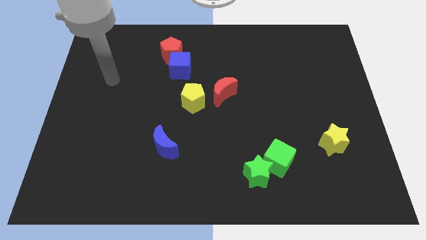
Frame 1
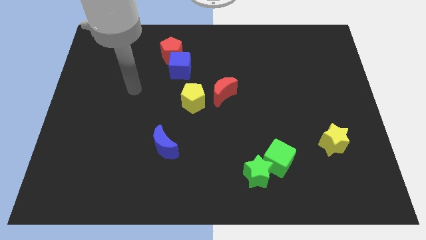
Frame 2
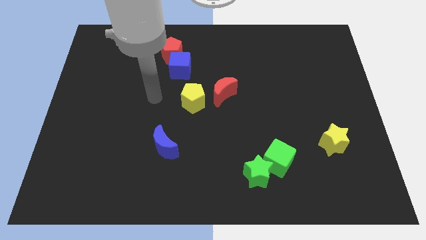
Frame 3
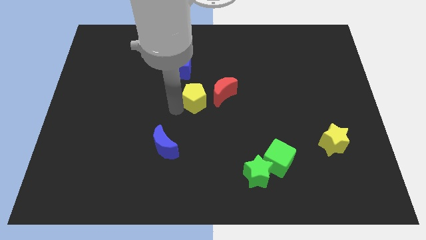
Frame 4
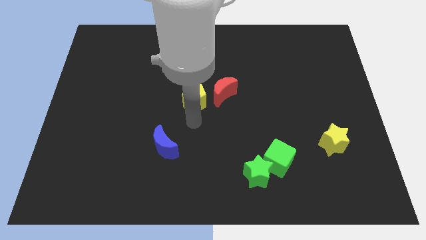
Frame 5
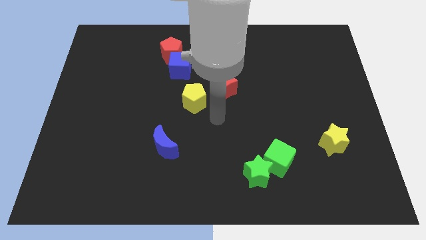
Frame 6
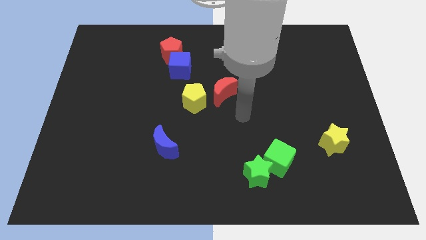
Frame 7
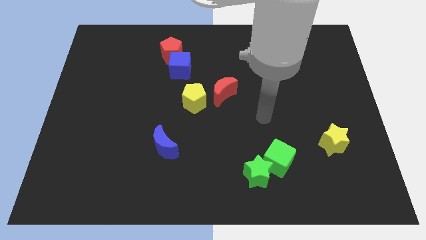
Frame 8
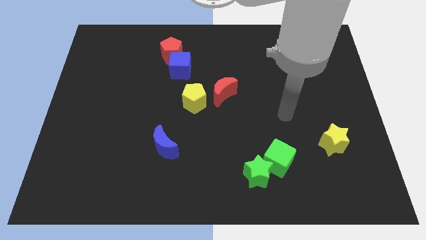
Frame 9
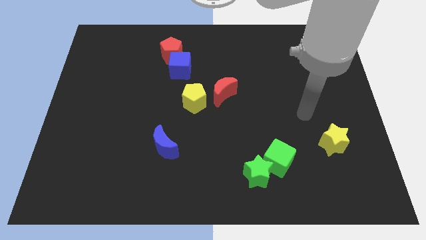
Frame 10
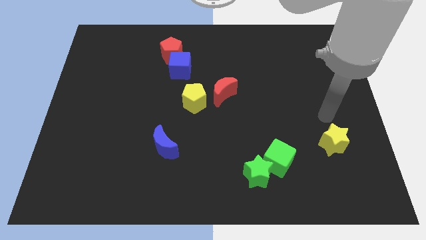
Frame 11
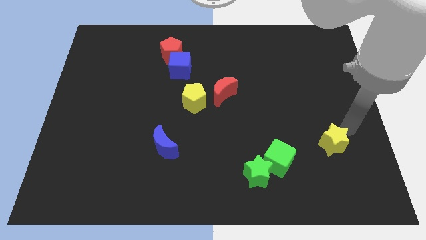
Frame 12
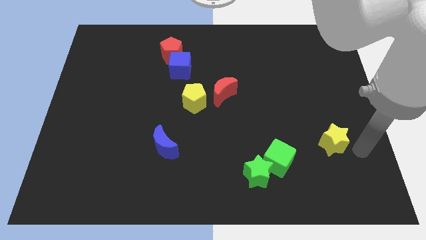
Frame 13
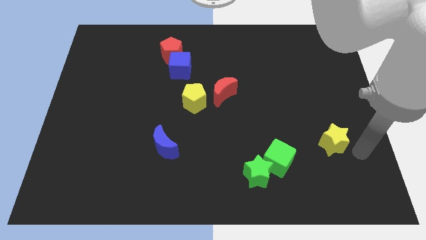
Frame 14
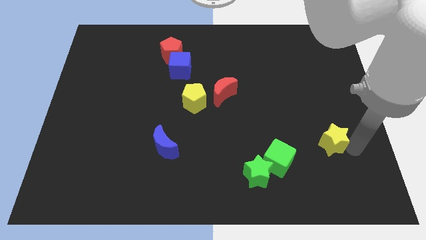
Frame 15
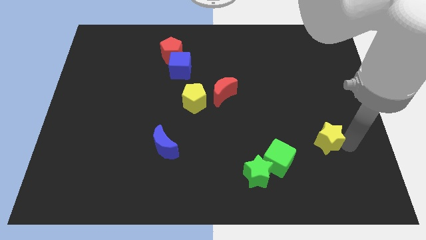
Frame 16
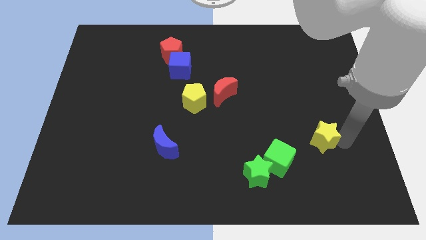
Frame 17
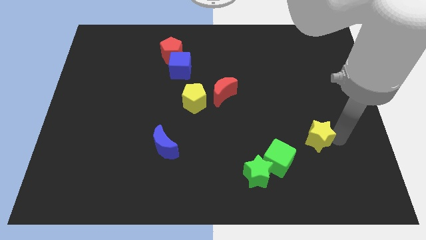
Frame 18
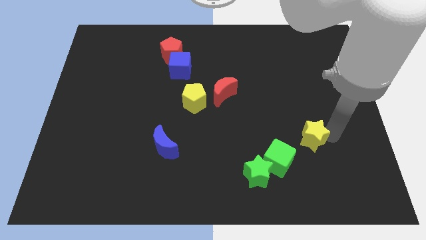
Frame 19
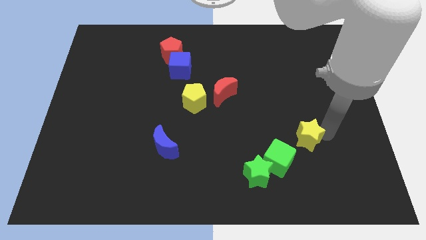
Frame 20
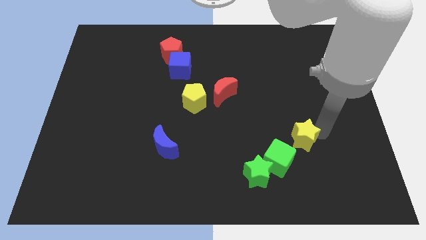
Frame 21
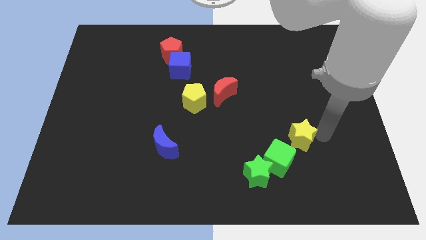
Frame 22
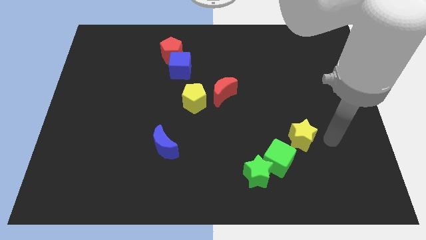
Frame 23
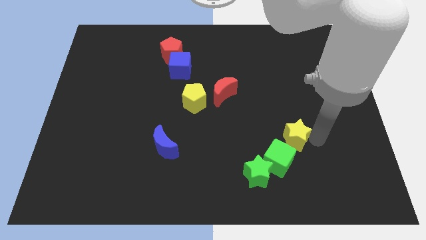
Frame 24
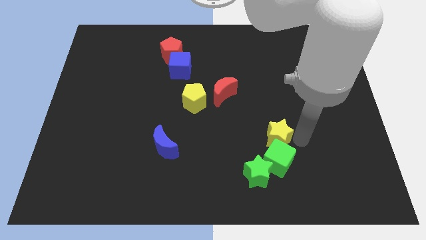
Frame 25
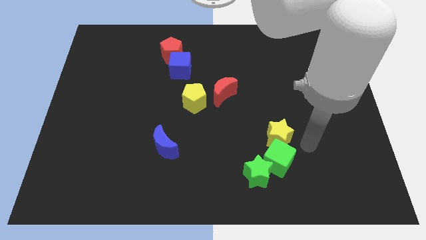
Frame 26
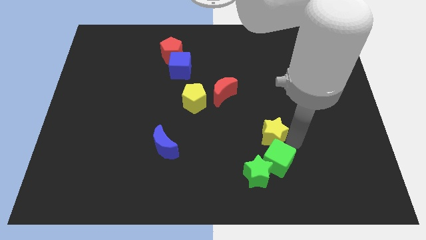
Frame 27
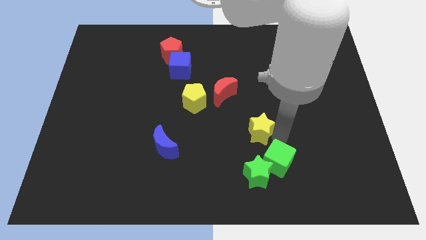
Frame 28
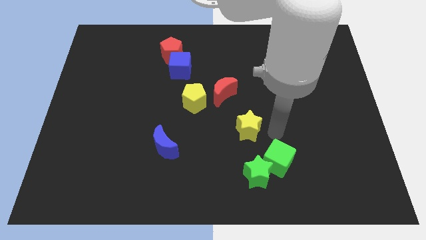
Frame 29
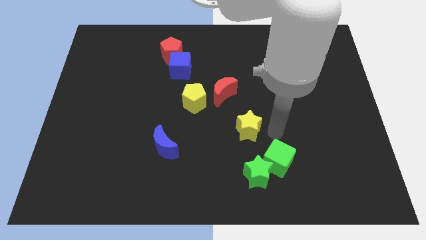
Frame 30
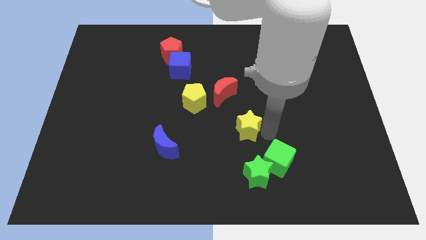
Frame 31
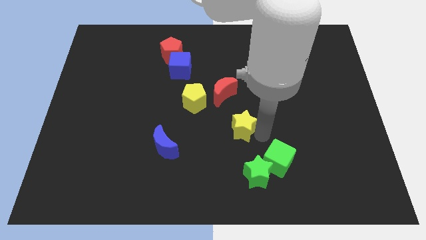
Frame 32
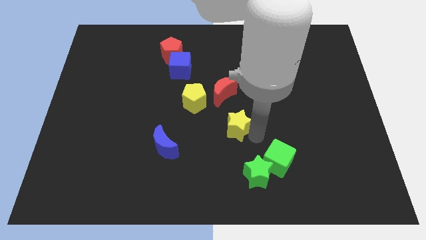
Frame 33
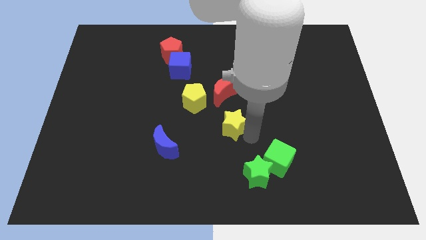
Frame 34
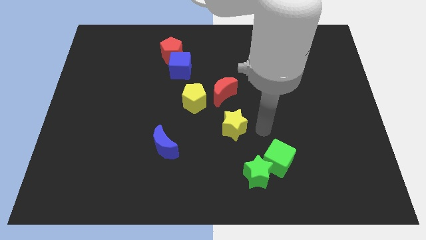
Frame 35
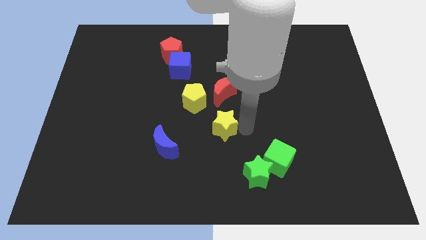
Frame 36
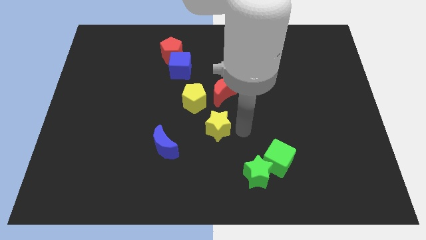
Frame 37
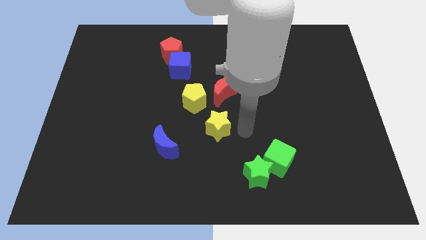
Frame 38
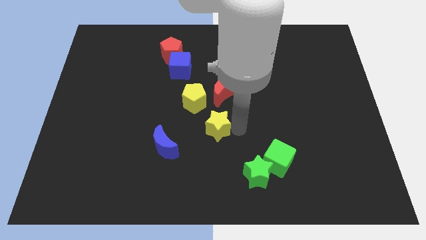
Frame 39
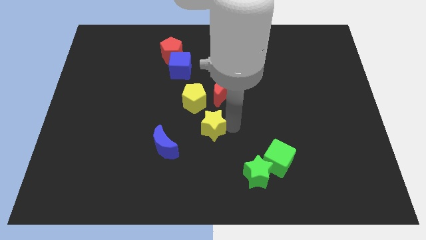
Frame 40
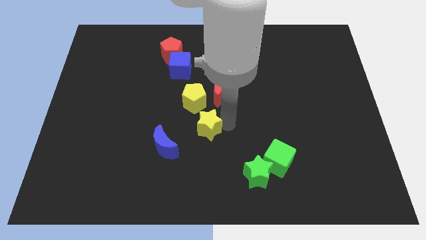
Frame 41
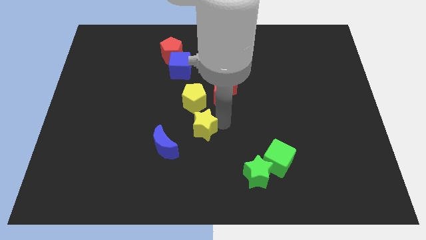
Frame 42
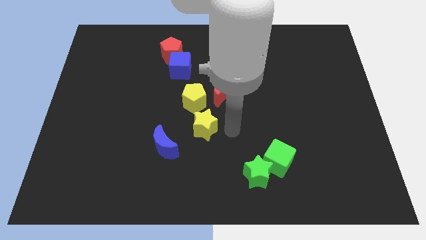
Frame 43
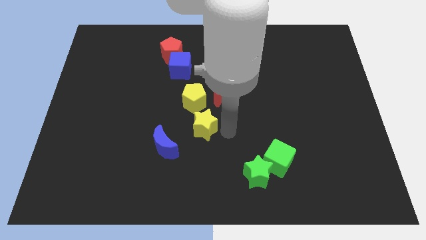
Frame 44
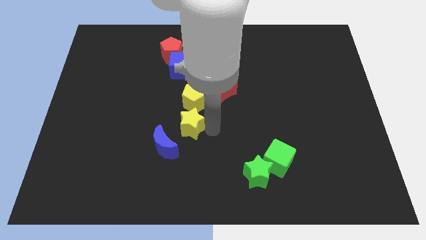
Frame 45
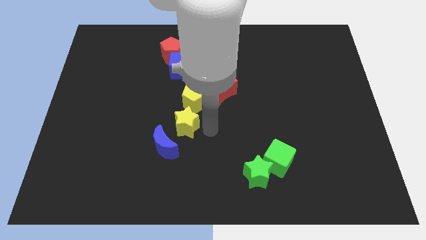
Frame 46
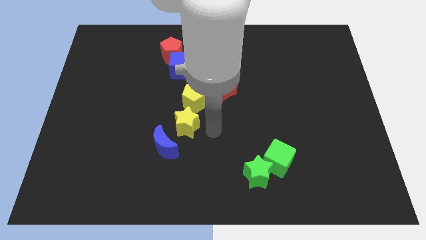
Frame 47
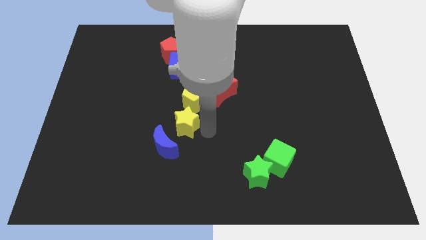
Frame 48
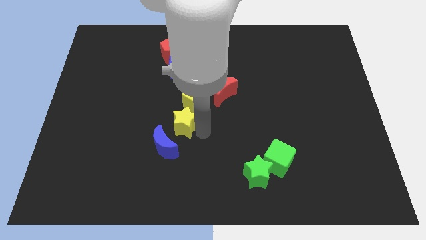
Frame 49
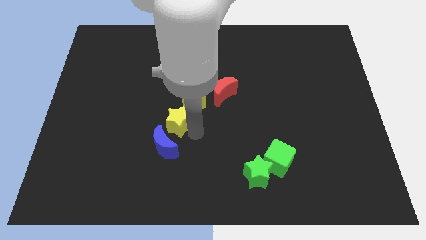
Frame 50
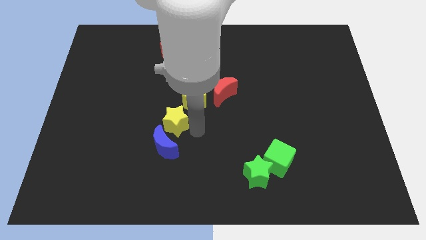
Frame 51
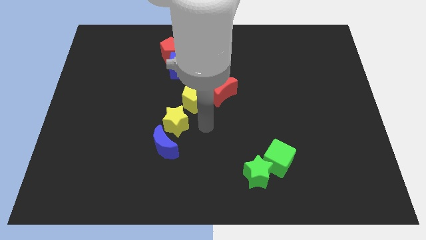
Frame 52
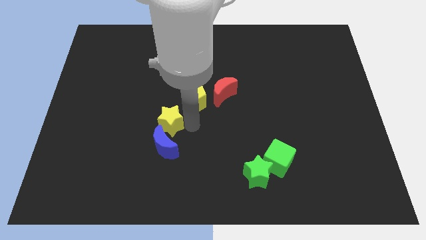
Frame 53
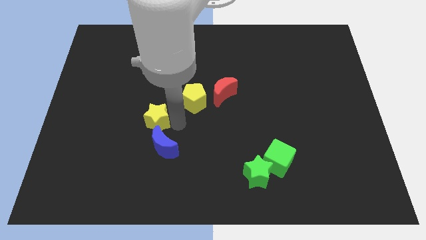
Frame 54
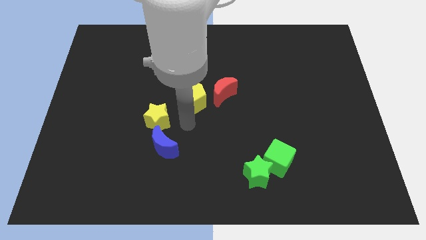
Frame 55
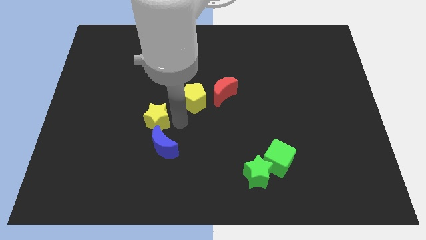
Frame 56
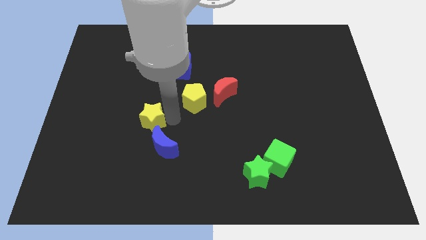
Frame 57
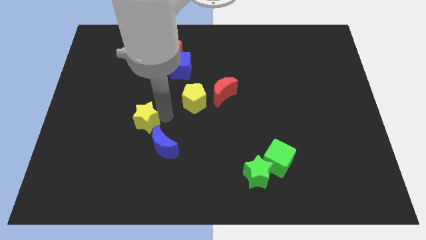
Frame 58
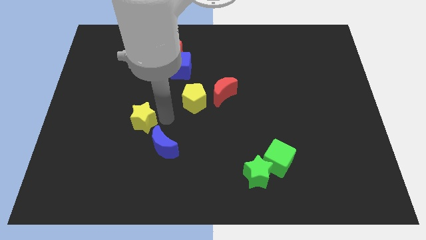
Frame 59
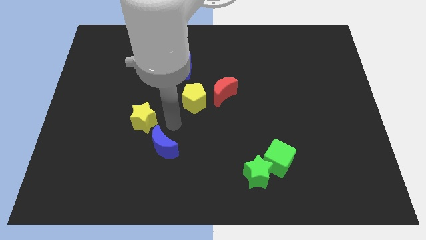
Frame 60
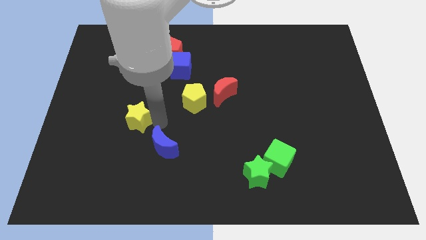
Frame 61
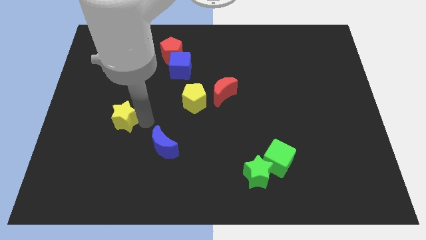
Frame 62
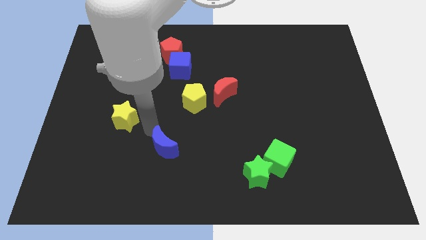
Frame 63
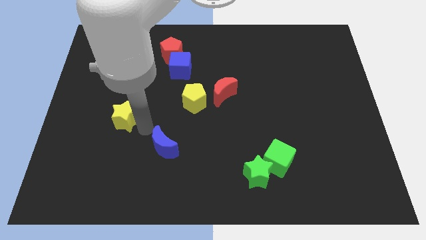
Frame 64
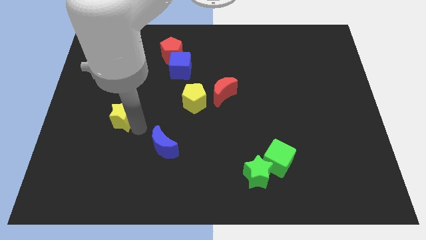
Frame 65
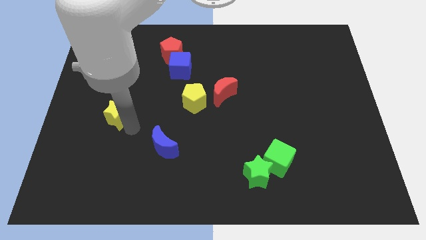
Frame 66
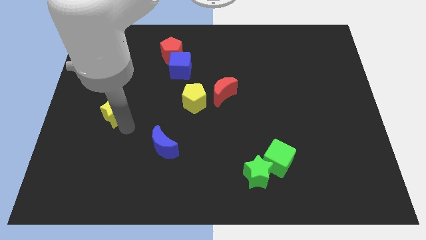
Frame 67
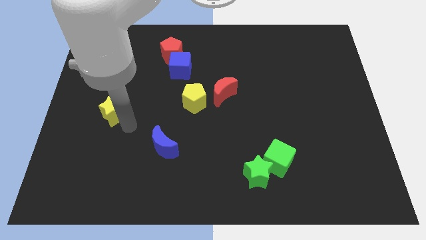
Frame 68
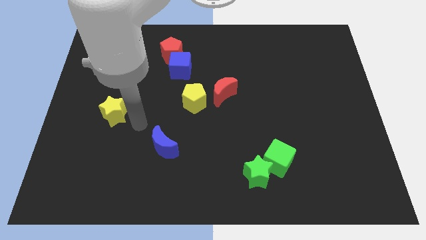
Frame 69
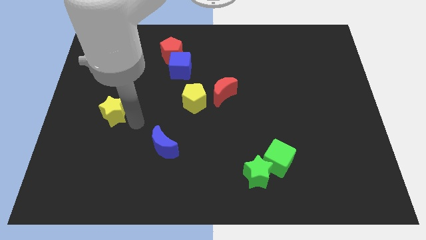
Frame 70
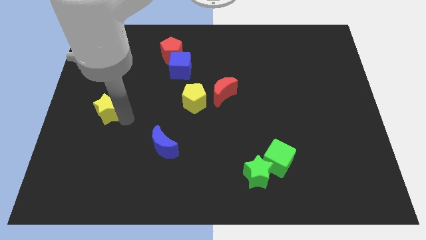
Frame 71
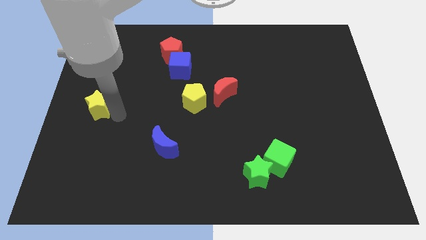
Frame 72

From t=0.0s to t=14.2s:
move the yellow star to the left side
